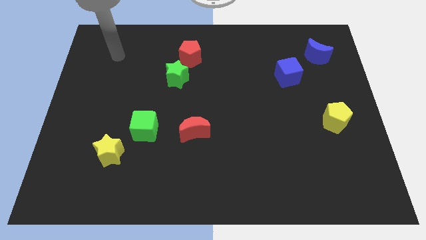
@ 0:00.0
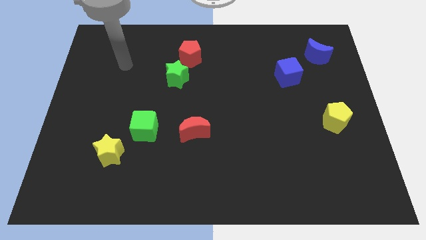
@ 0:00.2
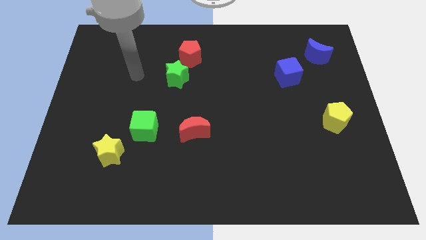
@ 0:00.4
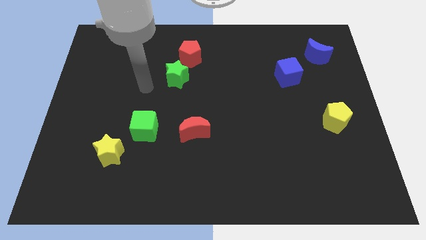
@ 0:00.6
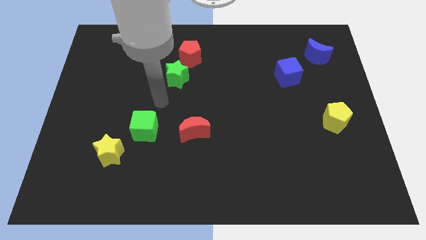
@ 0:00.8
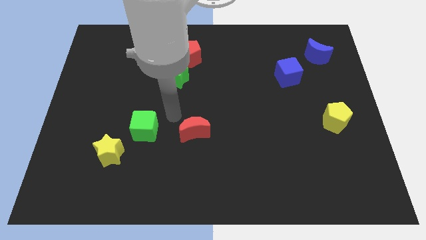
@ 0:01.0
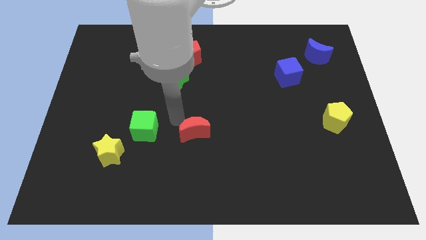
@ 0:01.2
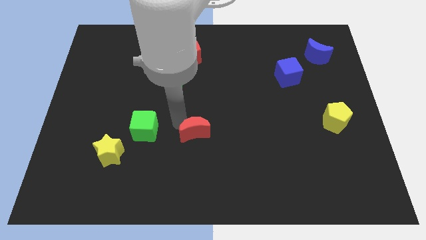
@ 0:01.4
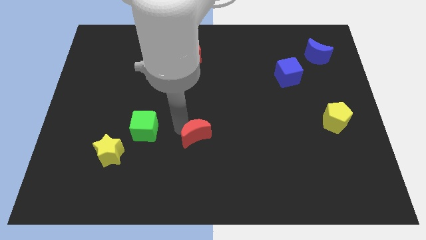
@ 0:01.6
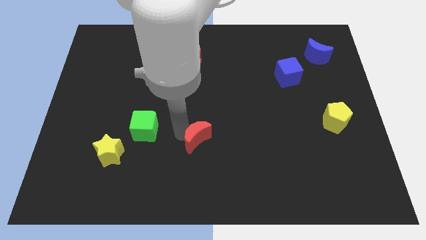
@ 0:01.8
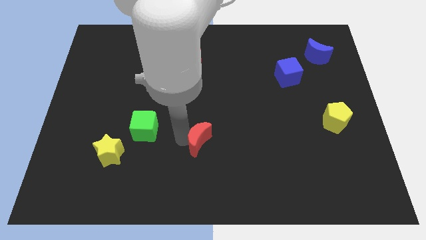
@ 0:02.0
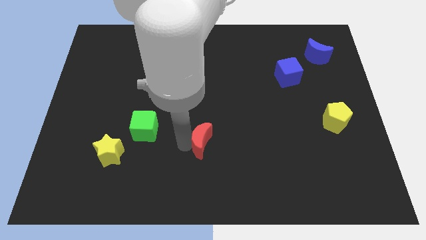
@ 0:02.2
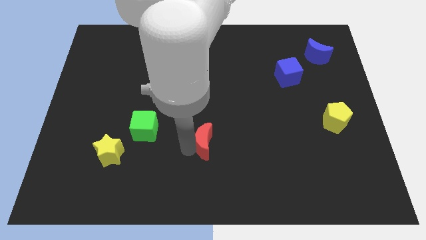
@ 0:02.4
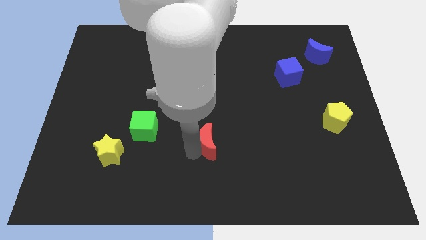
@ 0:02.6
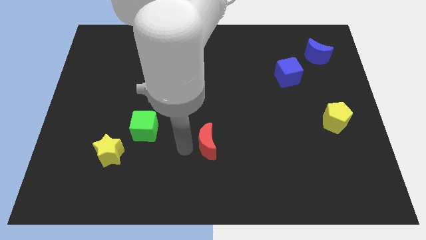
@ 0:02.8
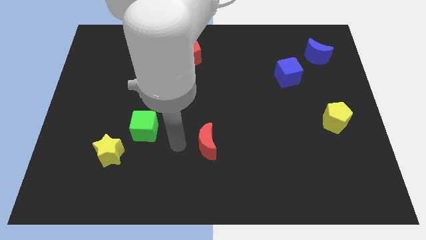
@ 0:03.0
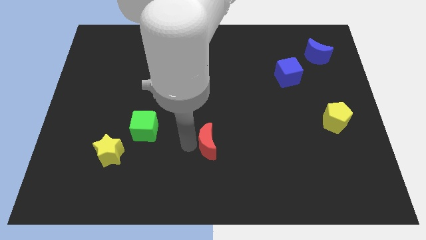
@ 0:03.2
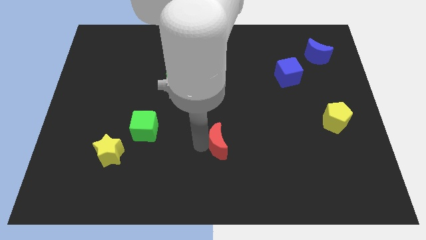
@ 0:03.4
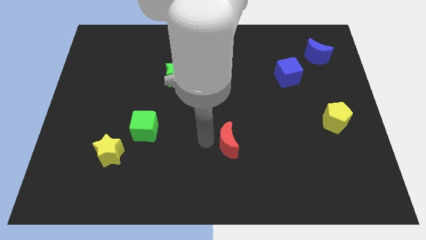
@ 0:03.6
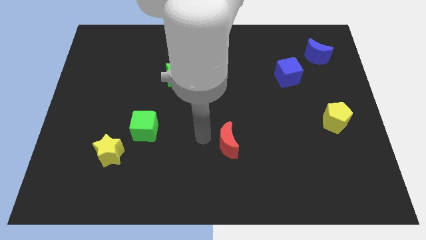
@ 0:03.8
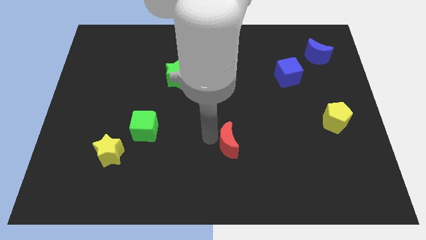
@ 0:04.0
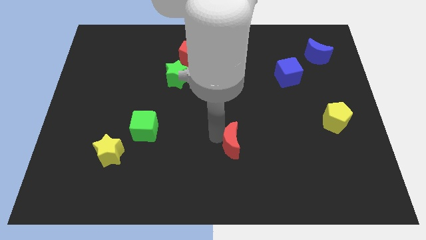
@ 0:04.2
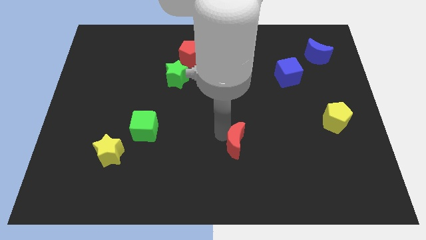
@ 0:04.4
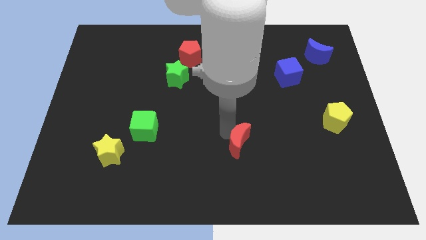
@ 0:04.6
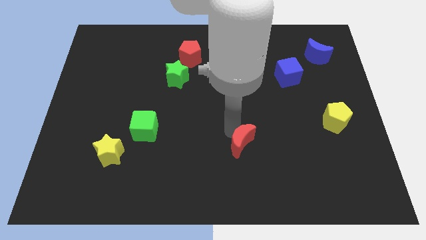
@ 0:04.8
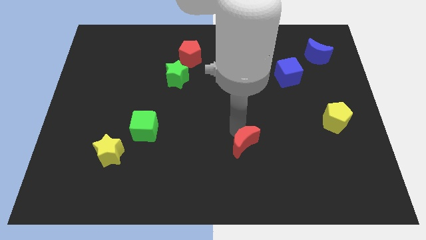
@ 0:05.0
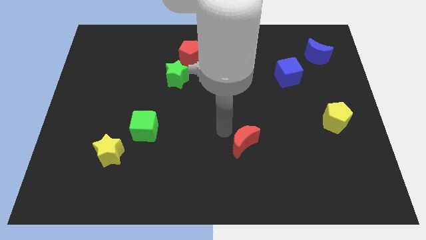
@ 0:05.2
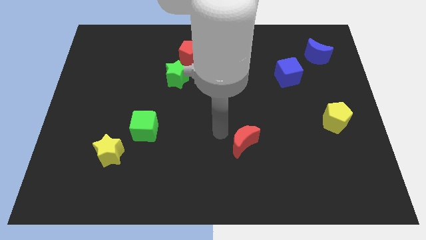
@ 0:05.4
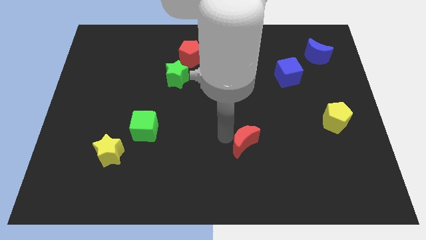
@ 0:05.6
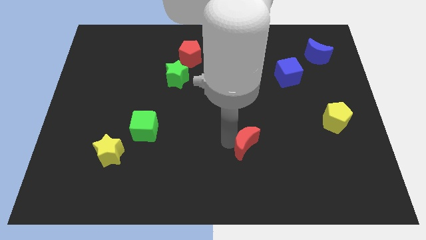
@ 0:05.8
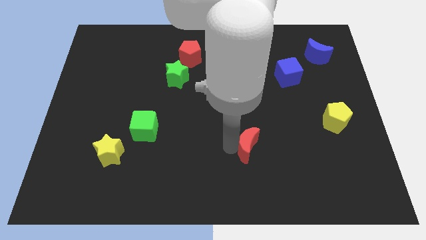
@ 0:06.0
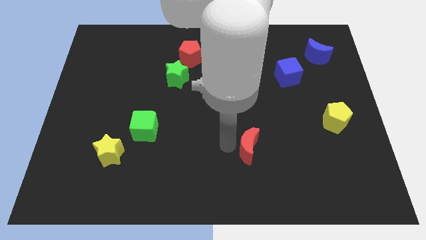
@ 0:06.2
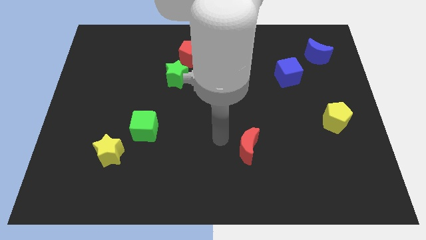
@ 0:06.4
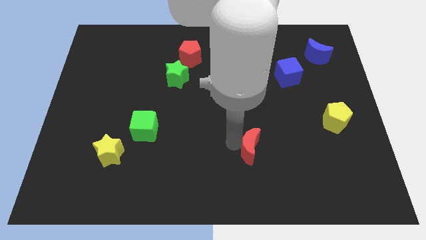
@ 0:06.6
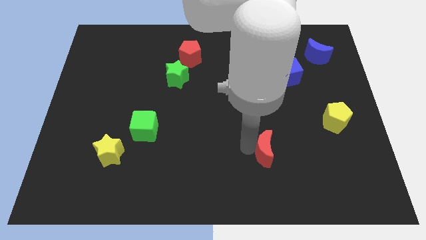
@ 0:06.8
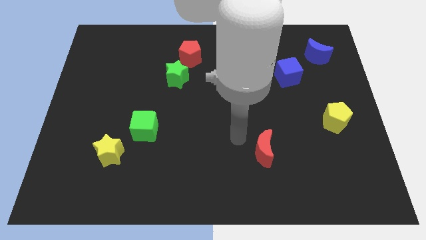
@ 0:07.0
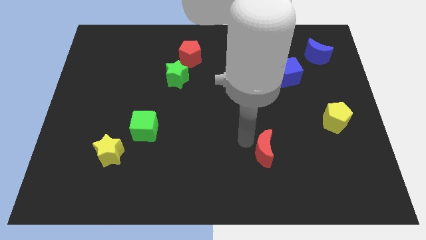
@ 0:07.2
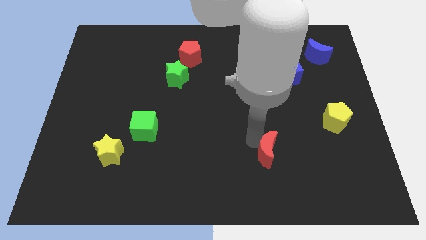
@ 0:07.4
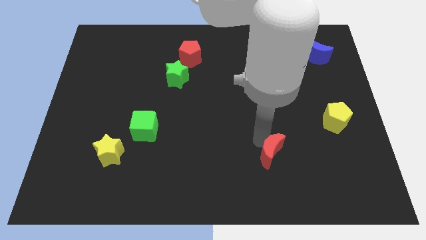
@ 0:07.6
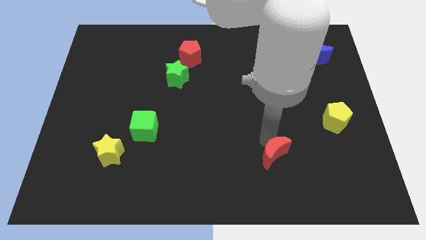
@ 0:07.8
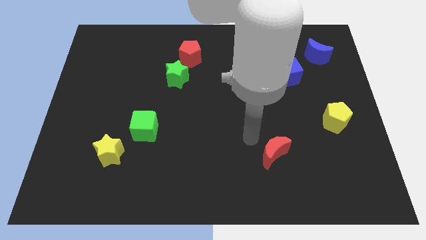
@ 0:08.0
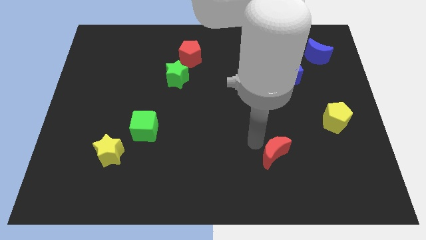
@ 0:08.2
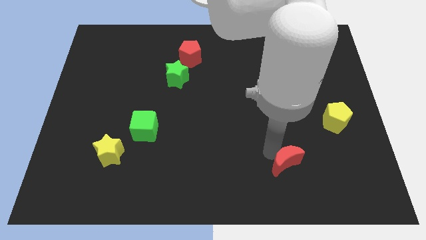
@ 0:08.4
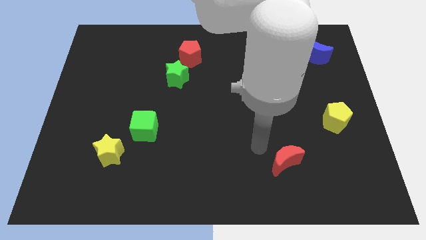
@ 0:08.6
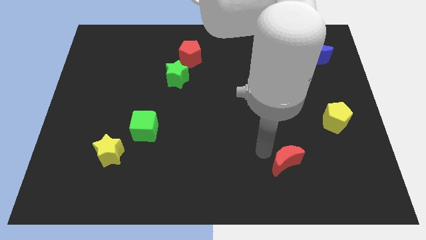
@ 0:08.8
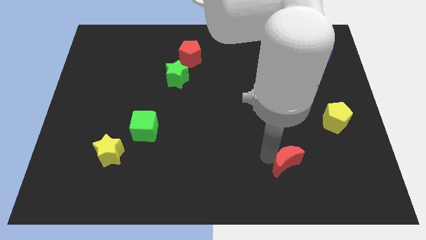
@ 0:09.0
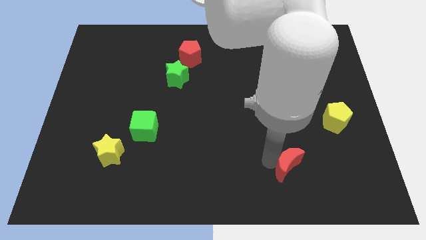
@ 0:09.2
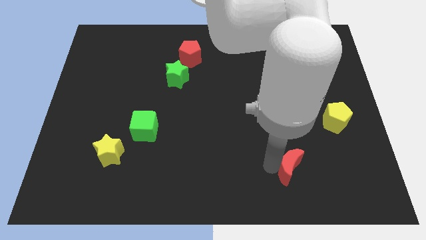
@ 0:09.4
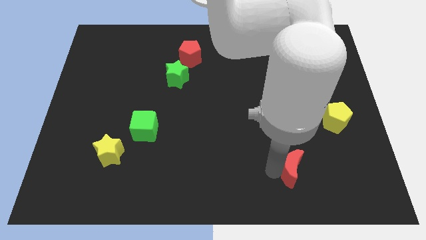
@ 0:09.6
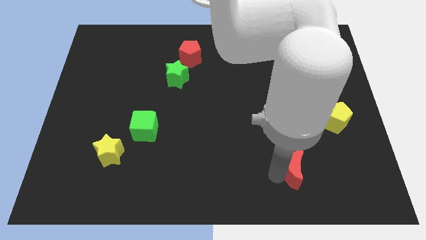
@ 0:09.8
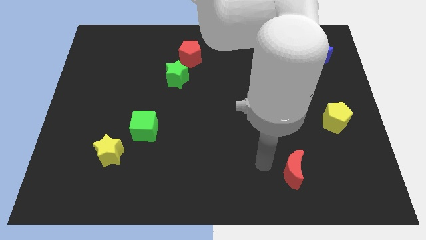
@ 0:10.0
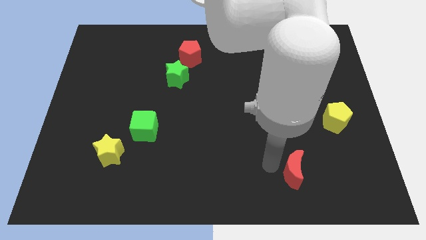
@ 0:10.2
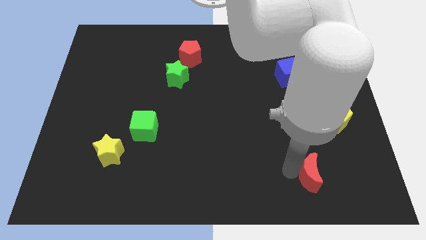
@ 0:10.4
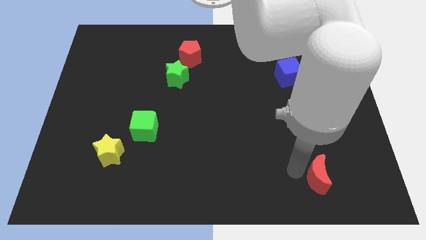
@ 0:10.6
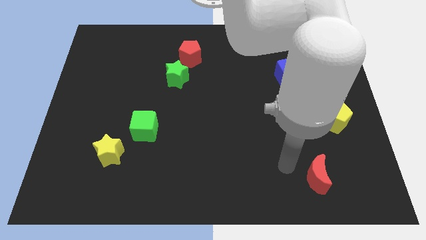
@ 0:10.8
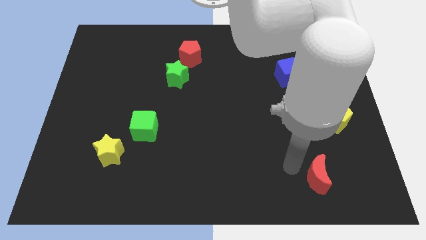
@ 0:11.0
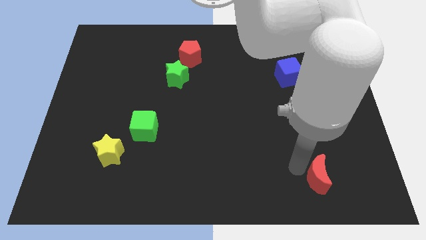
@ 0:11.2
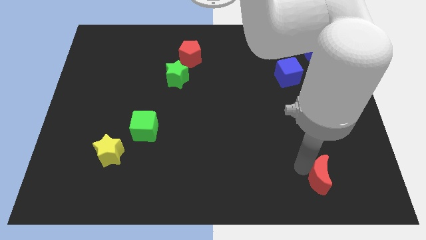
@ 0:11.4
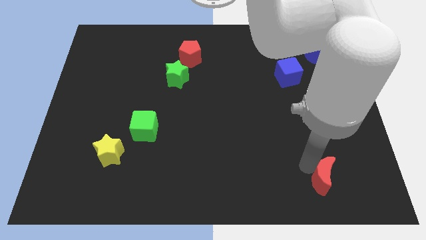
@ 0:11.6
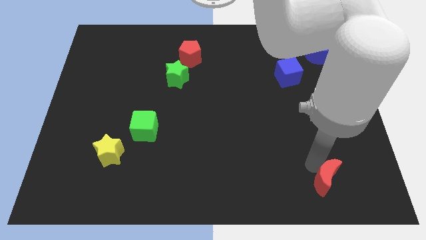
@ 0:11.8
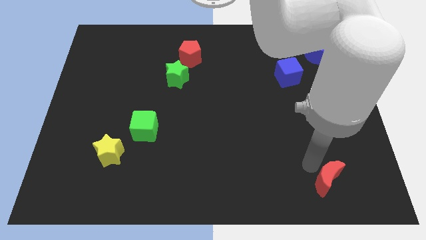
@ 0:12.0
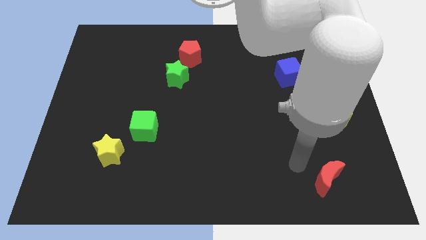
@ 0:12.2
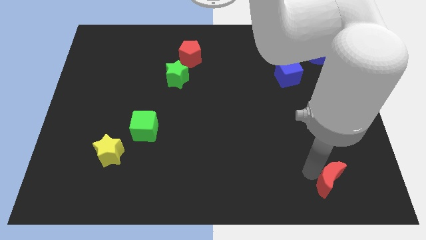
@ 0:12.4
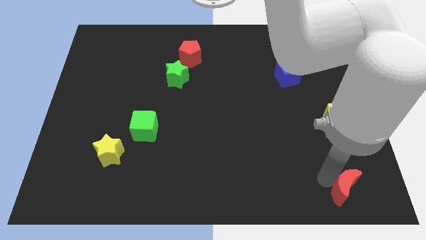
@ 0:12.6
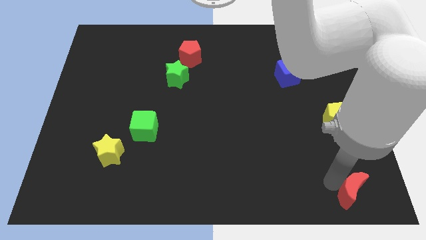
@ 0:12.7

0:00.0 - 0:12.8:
move the red moon to the bottom right corner
